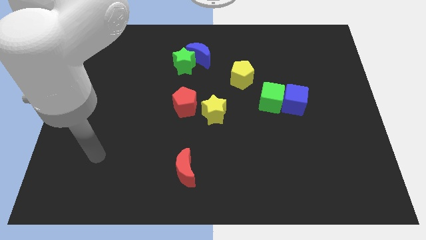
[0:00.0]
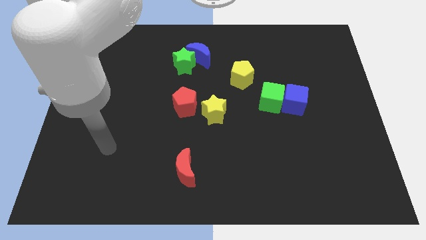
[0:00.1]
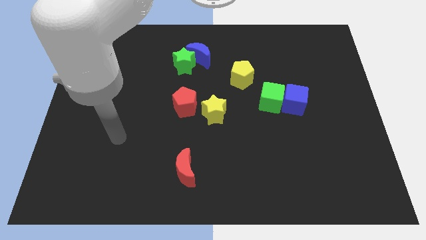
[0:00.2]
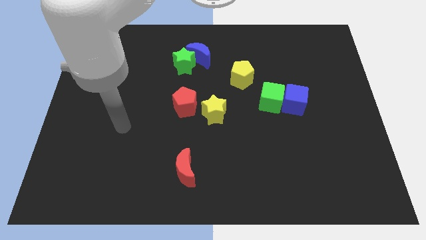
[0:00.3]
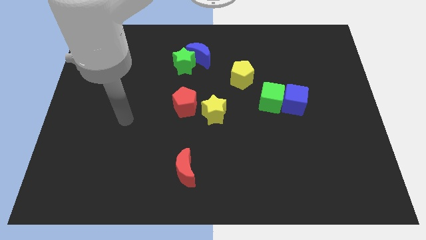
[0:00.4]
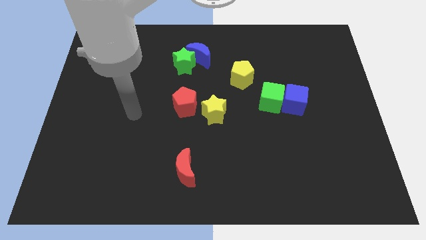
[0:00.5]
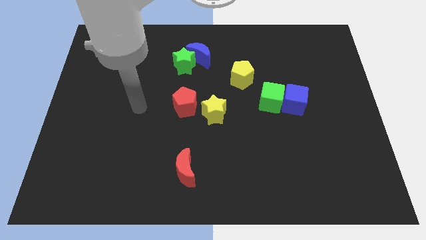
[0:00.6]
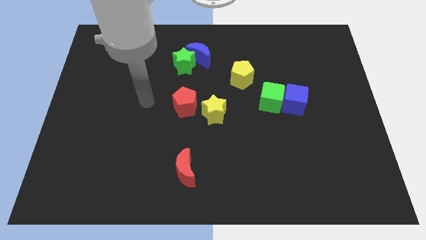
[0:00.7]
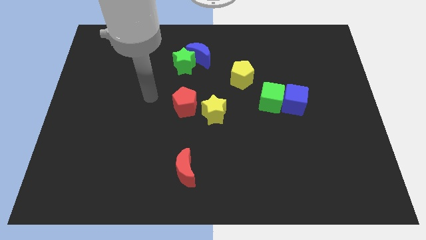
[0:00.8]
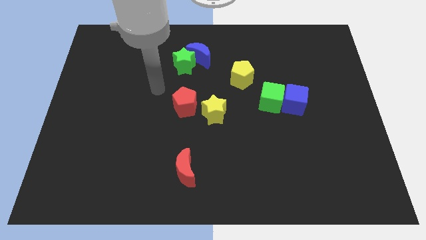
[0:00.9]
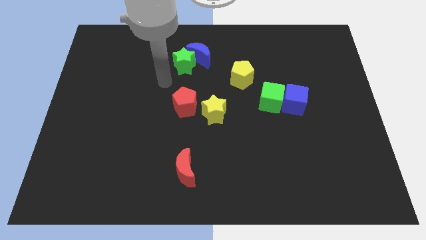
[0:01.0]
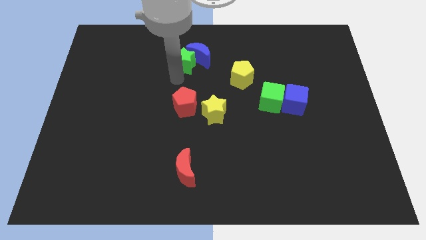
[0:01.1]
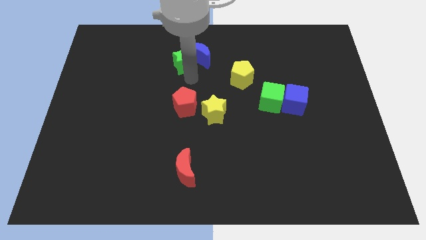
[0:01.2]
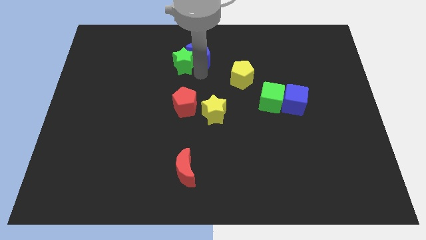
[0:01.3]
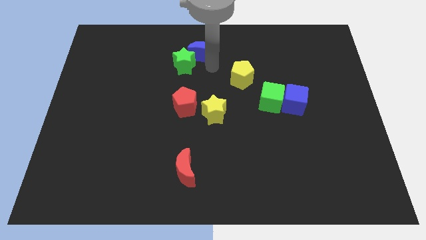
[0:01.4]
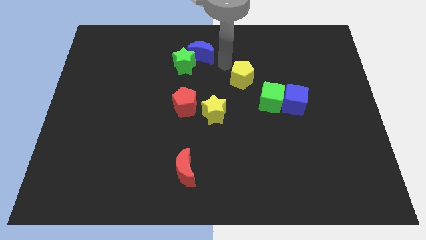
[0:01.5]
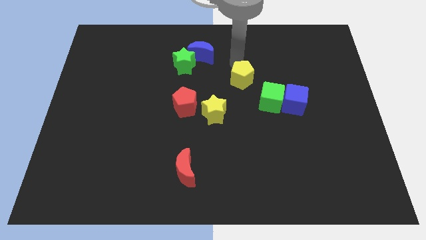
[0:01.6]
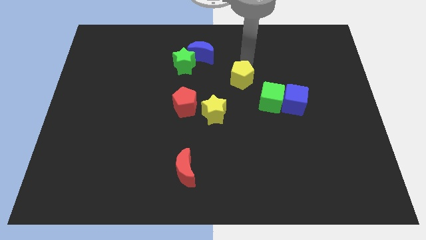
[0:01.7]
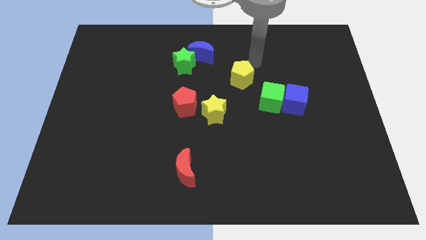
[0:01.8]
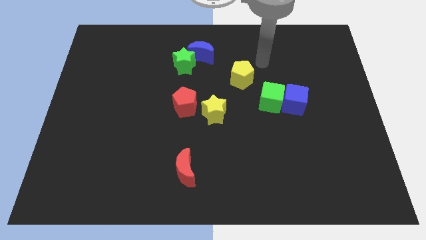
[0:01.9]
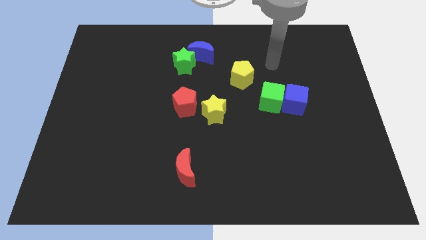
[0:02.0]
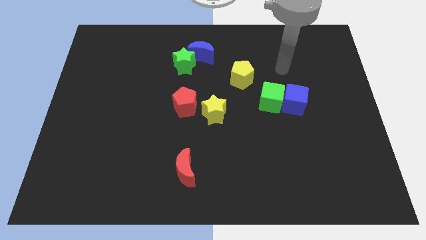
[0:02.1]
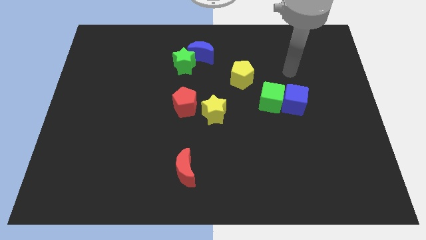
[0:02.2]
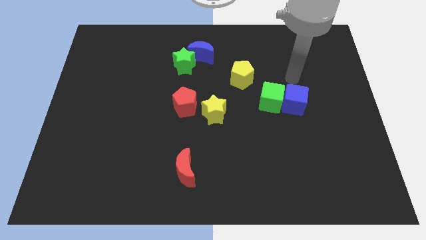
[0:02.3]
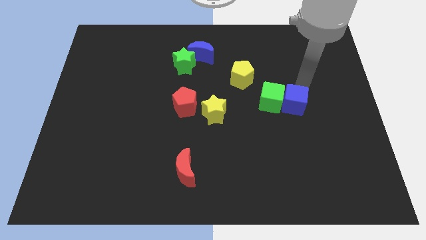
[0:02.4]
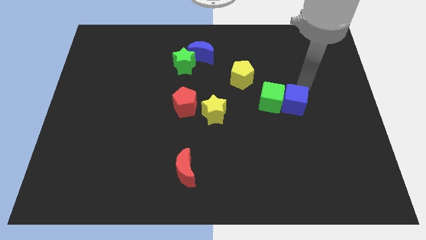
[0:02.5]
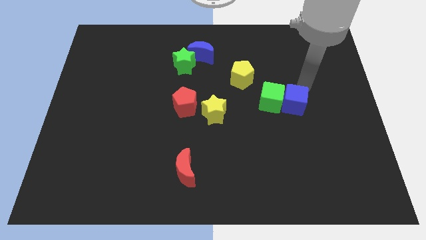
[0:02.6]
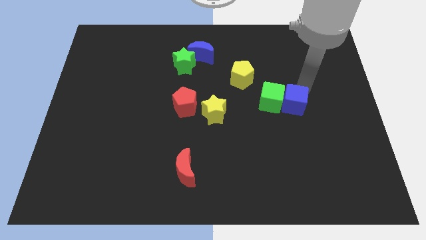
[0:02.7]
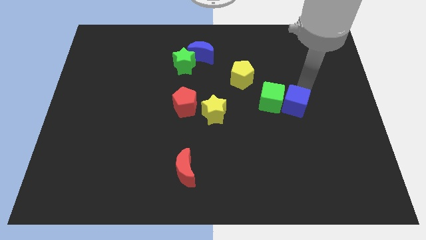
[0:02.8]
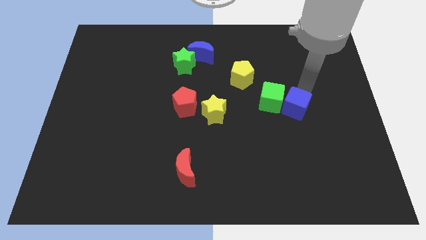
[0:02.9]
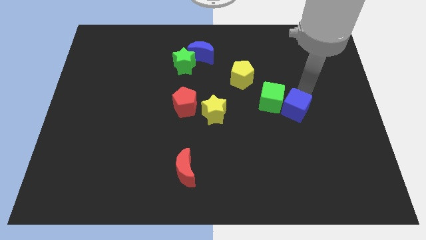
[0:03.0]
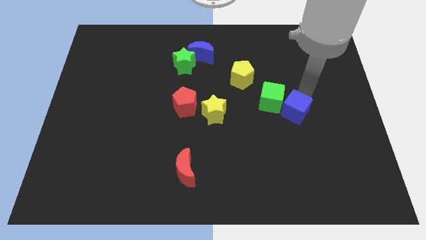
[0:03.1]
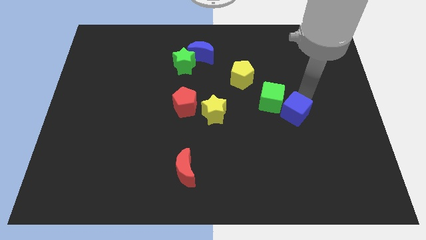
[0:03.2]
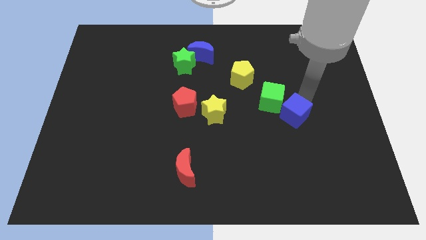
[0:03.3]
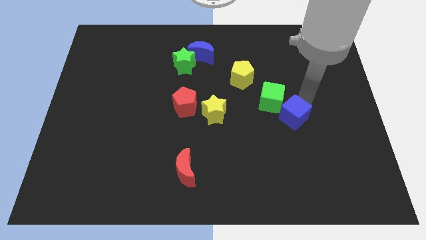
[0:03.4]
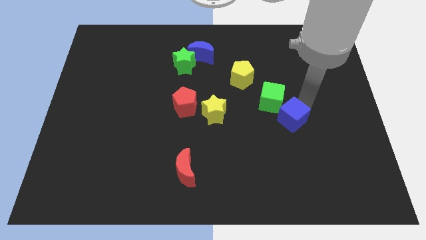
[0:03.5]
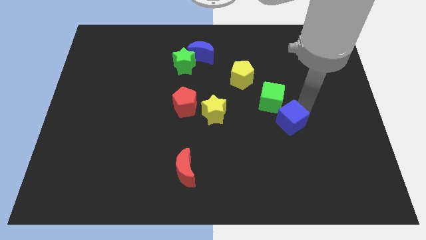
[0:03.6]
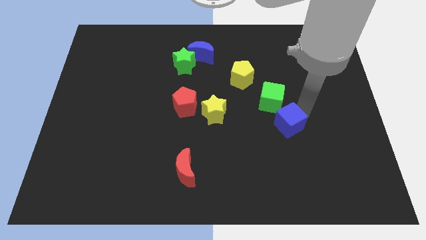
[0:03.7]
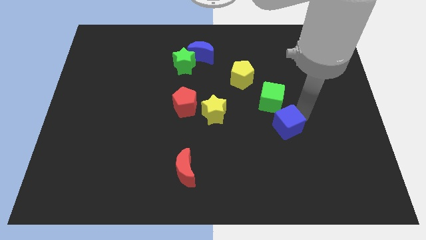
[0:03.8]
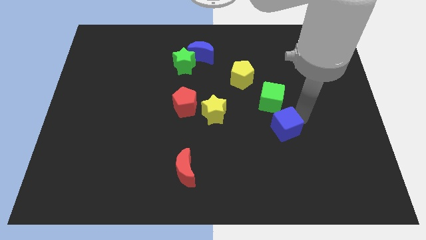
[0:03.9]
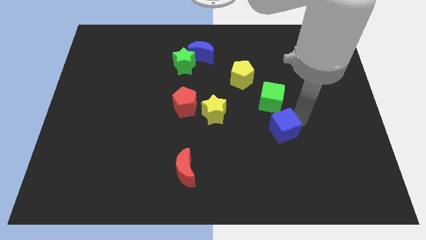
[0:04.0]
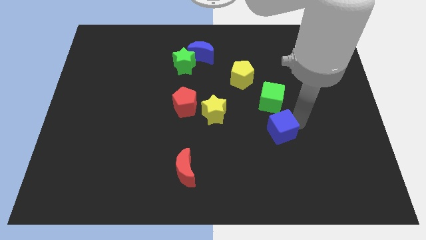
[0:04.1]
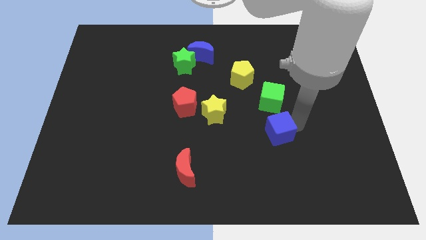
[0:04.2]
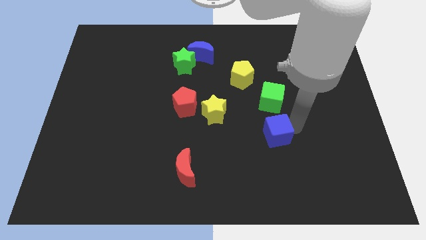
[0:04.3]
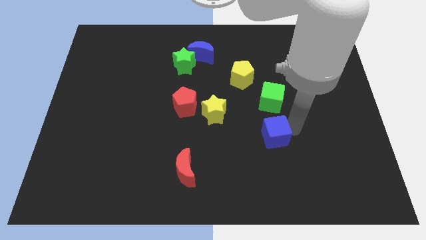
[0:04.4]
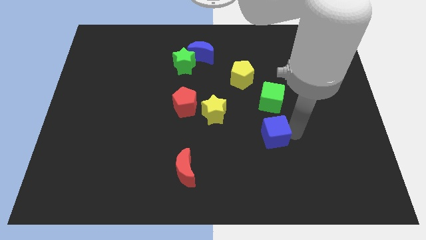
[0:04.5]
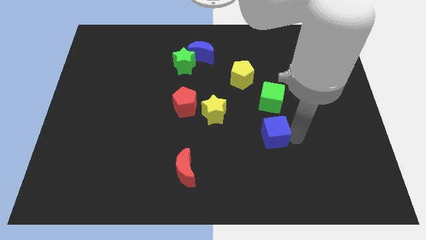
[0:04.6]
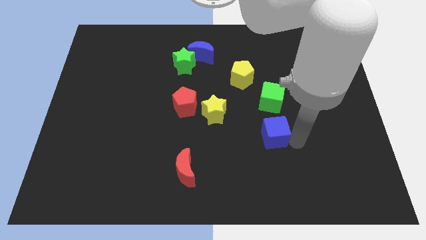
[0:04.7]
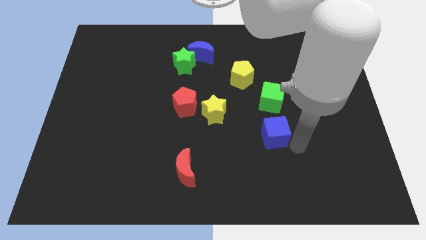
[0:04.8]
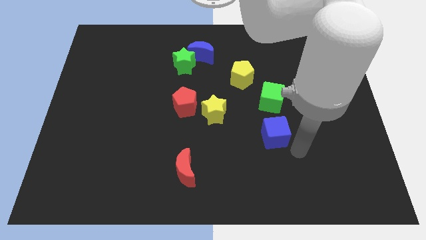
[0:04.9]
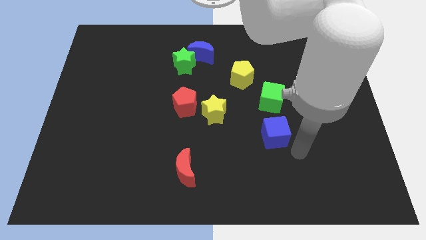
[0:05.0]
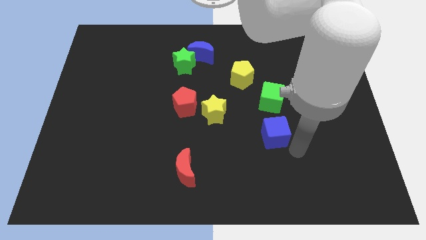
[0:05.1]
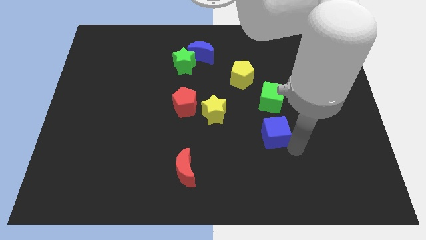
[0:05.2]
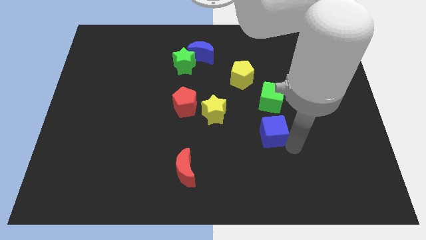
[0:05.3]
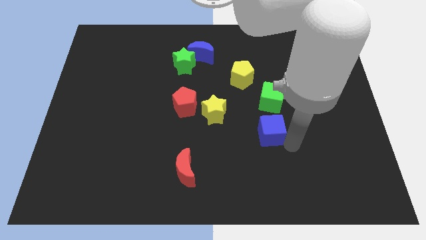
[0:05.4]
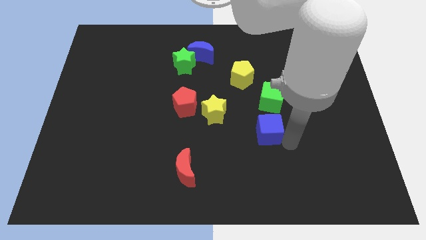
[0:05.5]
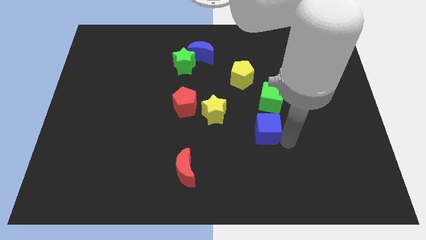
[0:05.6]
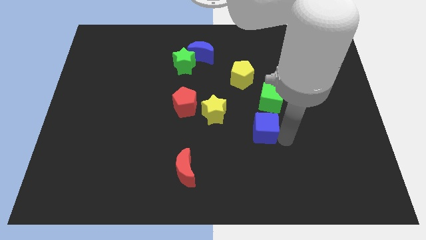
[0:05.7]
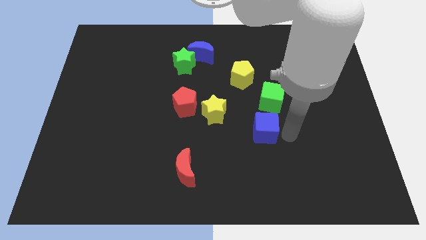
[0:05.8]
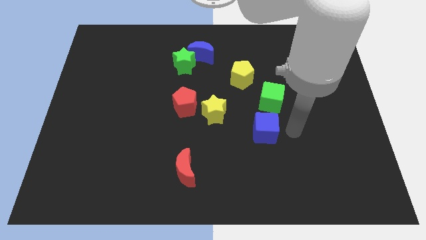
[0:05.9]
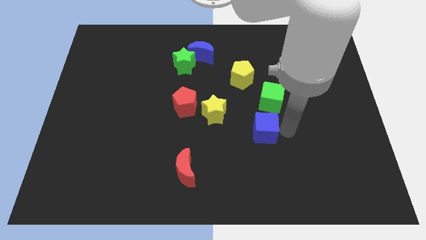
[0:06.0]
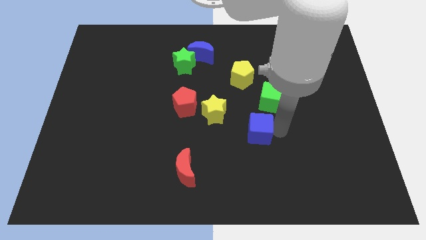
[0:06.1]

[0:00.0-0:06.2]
put the blue cube diagonally down and to the right of the yellow star

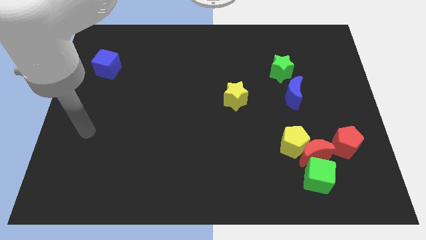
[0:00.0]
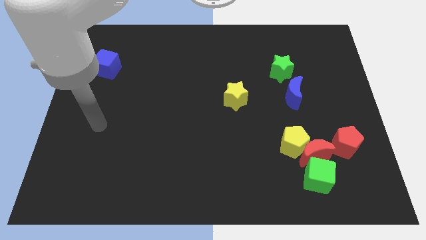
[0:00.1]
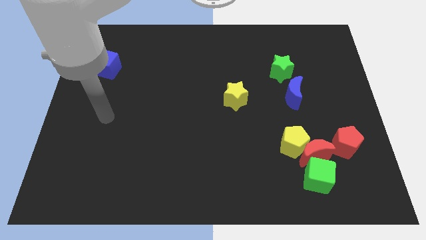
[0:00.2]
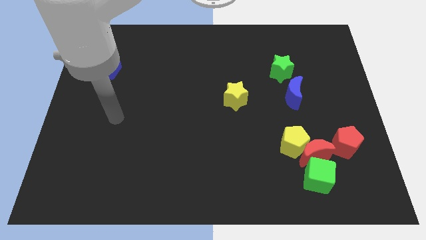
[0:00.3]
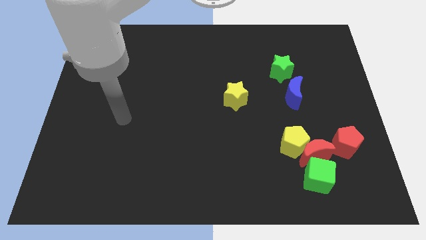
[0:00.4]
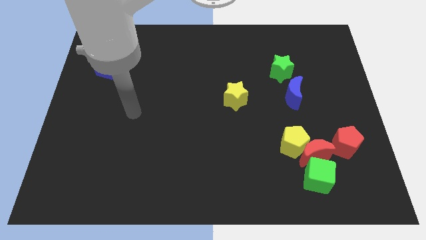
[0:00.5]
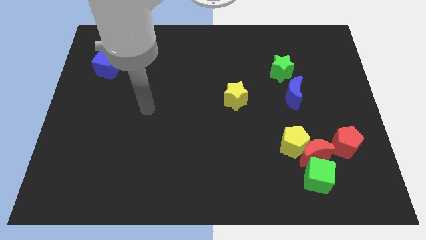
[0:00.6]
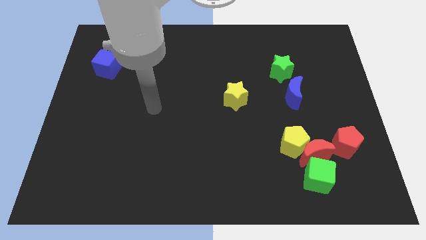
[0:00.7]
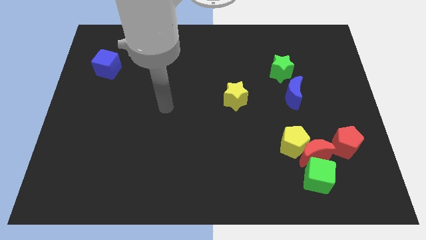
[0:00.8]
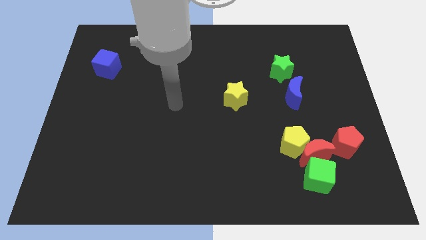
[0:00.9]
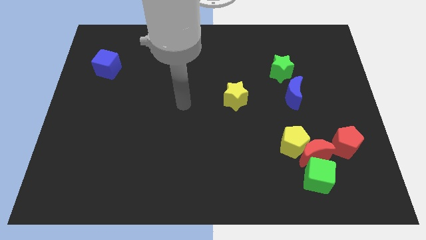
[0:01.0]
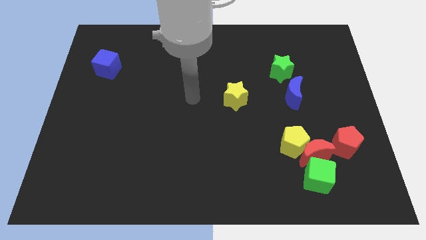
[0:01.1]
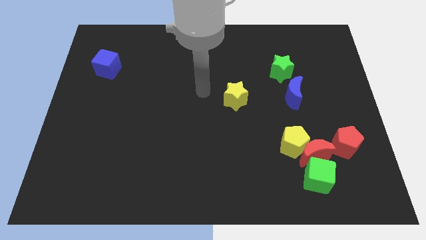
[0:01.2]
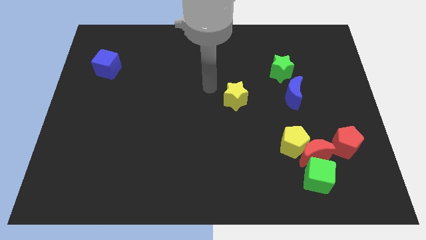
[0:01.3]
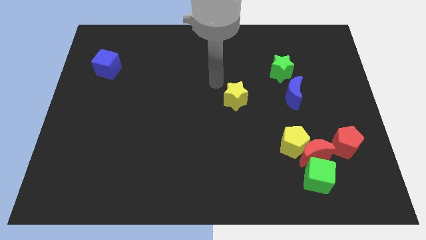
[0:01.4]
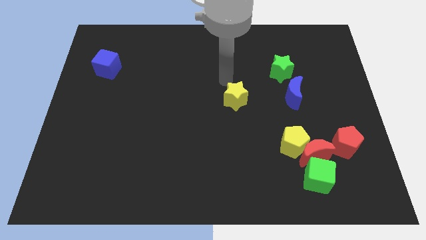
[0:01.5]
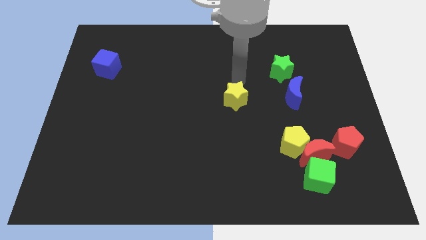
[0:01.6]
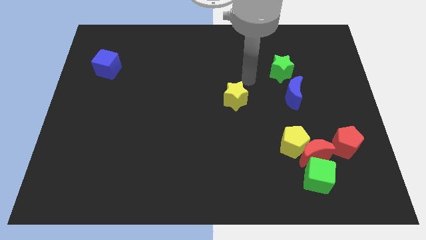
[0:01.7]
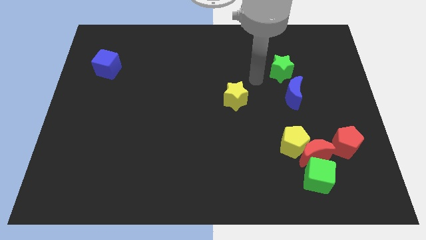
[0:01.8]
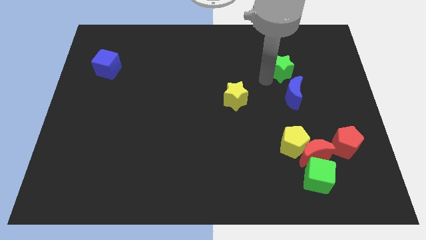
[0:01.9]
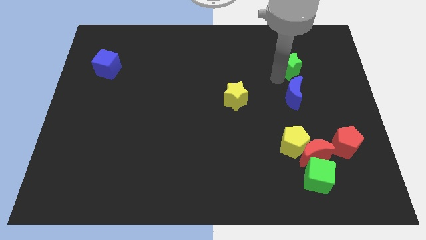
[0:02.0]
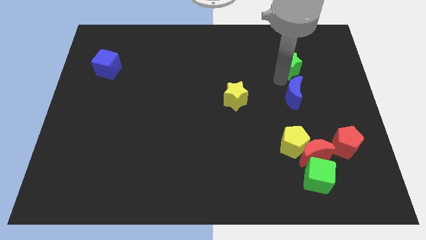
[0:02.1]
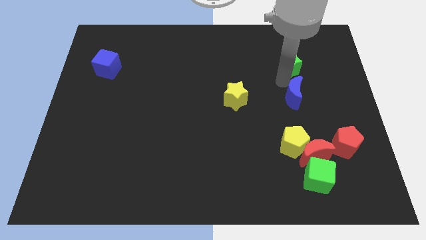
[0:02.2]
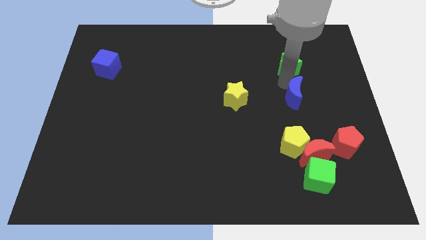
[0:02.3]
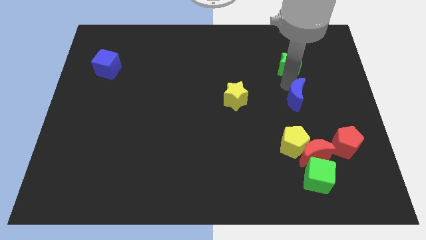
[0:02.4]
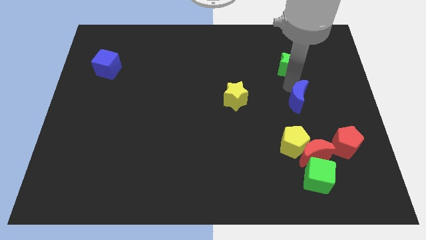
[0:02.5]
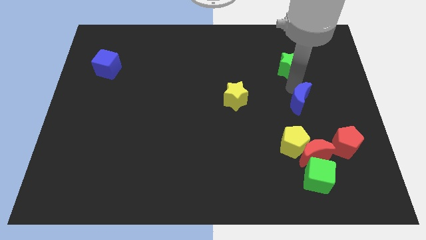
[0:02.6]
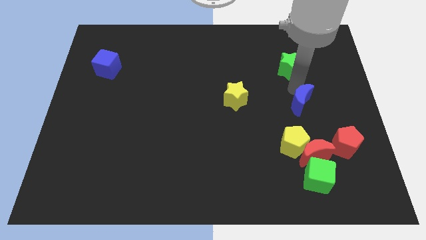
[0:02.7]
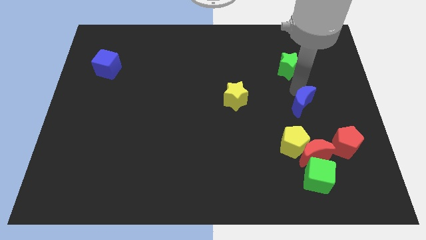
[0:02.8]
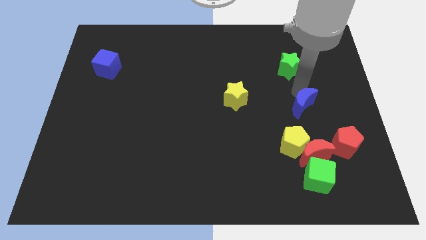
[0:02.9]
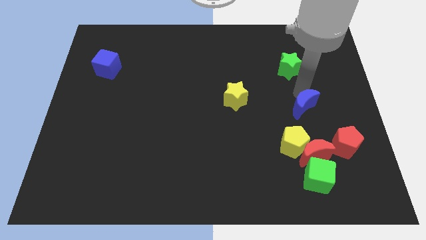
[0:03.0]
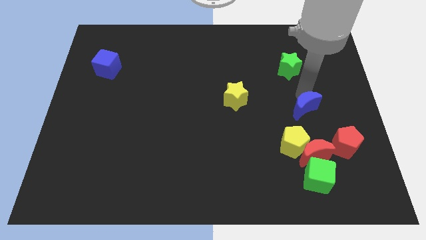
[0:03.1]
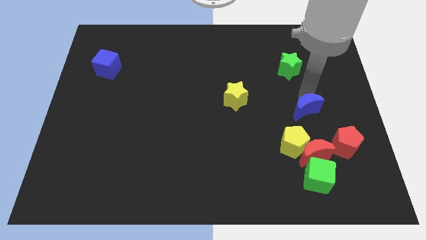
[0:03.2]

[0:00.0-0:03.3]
move the blue moon diagonally up and to the left of the red pentagon
